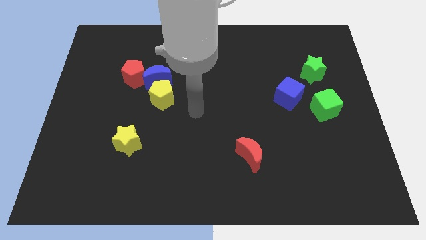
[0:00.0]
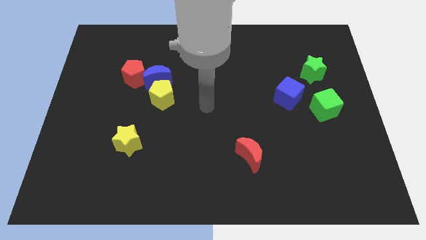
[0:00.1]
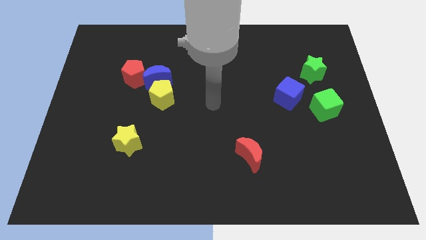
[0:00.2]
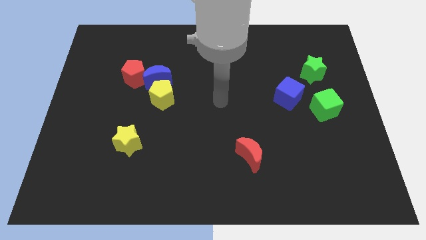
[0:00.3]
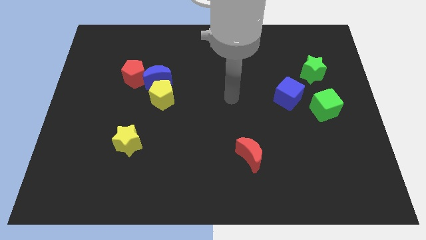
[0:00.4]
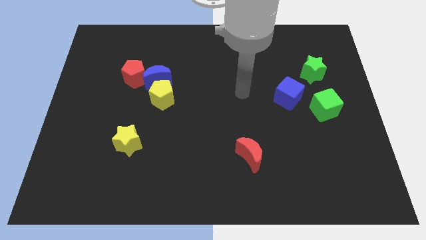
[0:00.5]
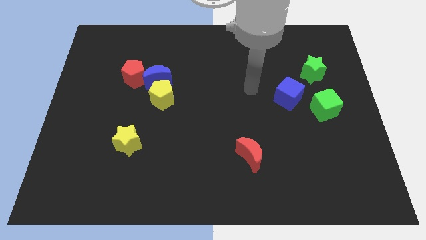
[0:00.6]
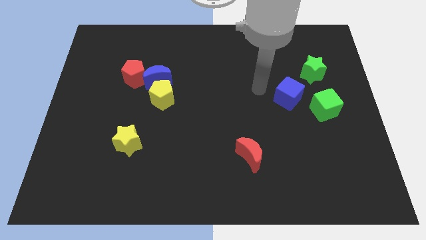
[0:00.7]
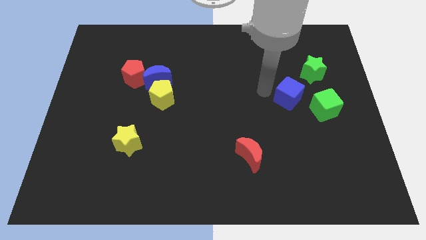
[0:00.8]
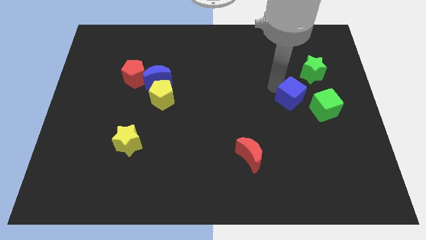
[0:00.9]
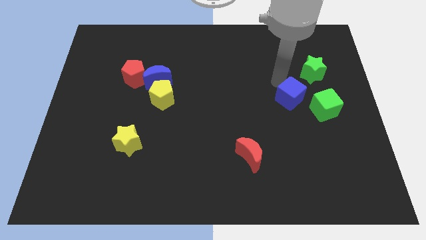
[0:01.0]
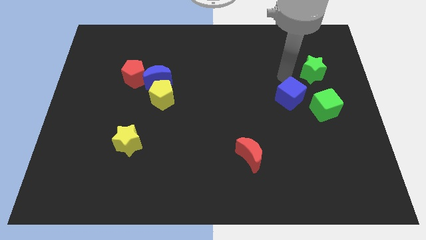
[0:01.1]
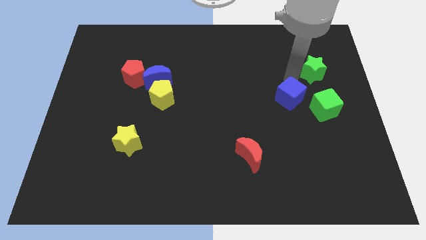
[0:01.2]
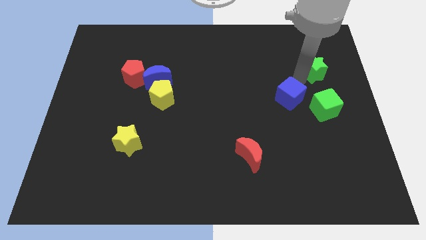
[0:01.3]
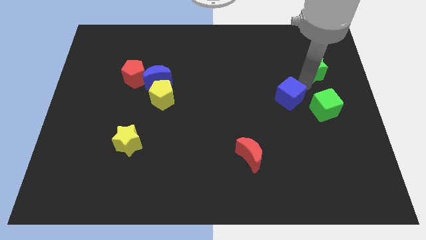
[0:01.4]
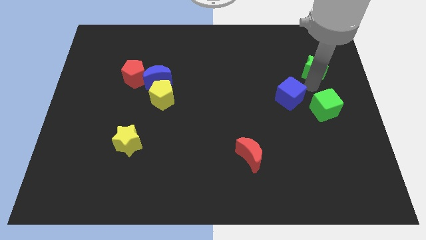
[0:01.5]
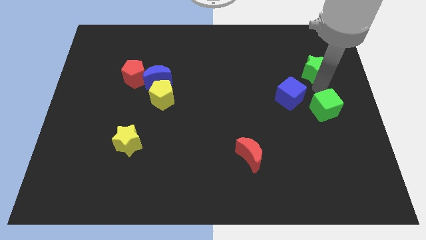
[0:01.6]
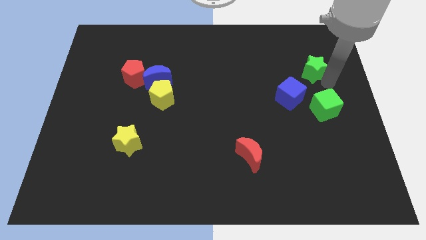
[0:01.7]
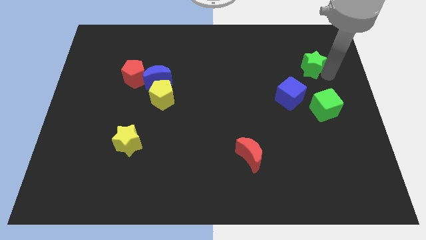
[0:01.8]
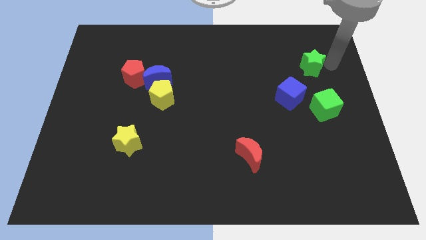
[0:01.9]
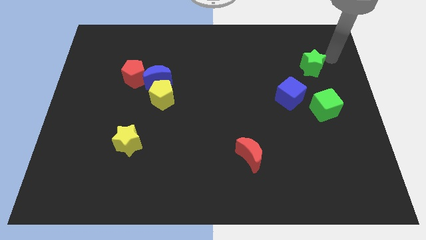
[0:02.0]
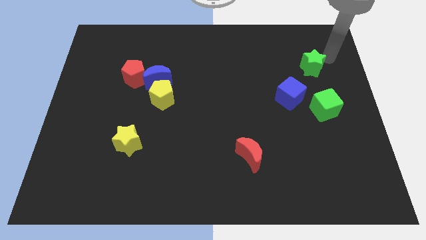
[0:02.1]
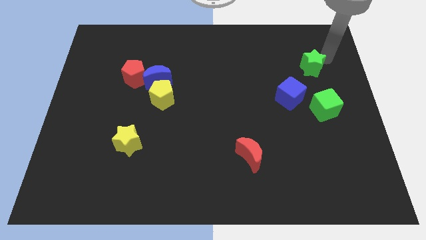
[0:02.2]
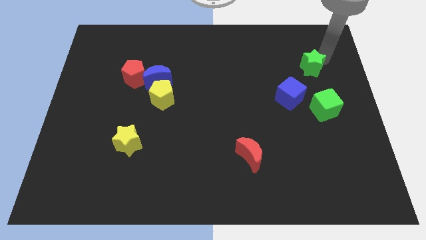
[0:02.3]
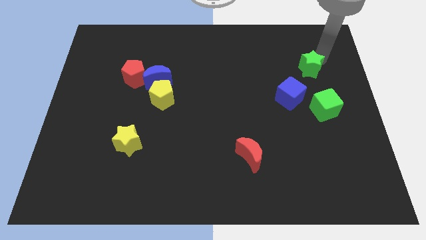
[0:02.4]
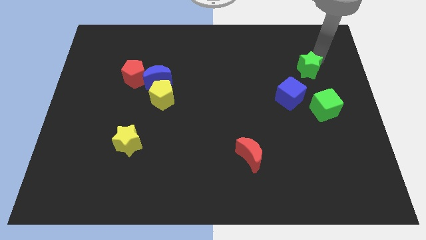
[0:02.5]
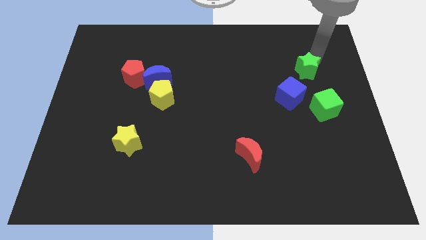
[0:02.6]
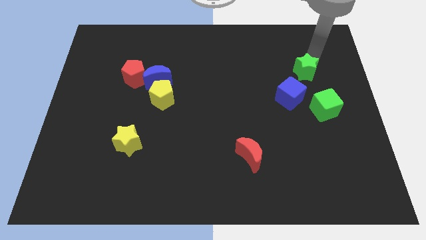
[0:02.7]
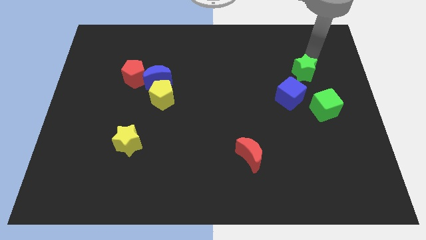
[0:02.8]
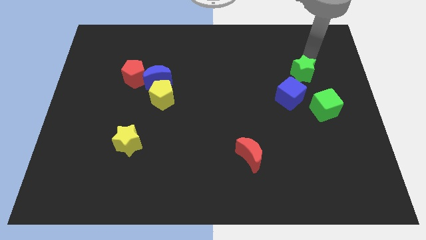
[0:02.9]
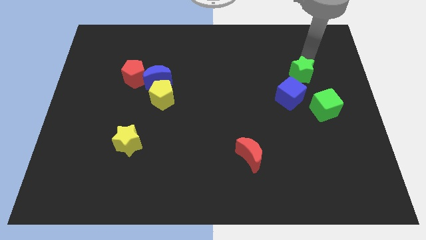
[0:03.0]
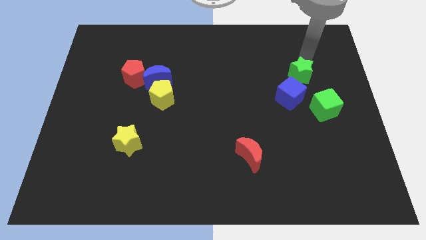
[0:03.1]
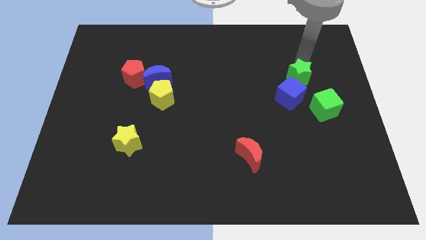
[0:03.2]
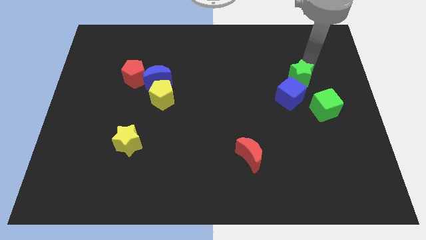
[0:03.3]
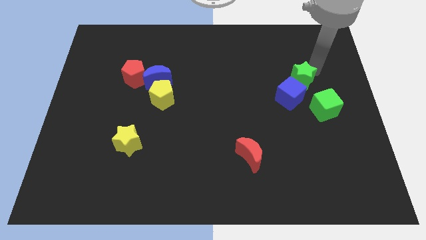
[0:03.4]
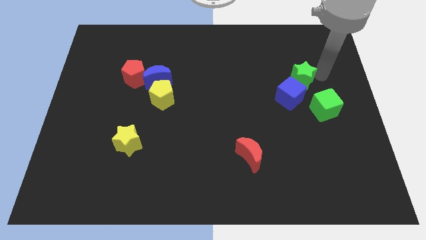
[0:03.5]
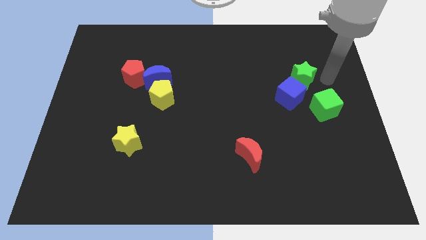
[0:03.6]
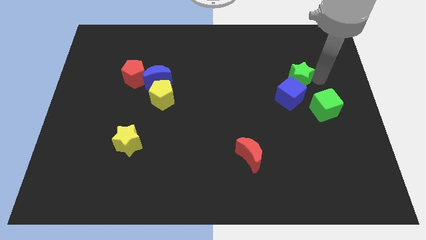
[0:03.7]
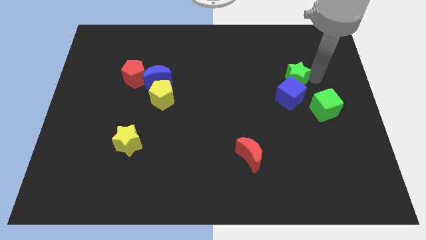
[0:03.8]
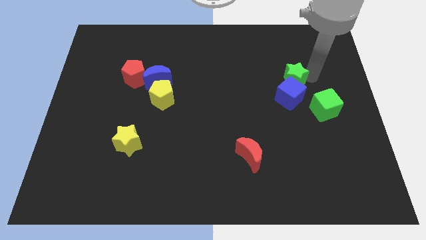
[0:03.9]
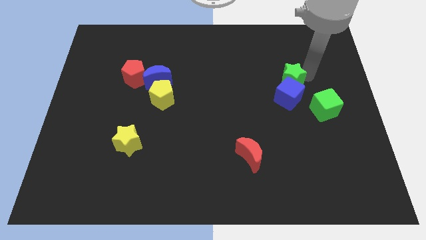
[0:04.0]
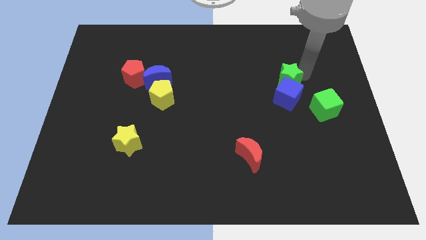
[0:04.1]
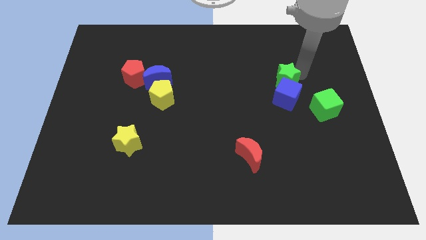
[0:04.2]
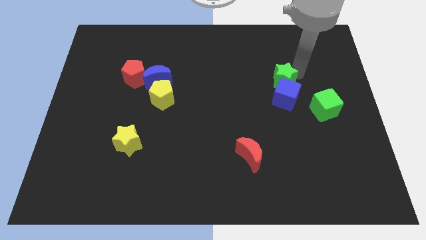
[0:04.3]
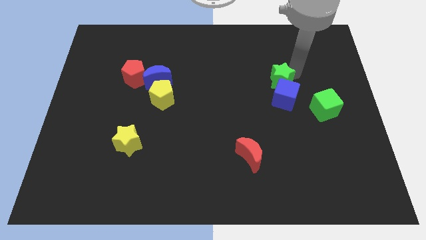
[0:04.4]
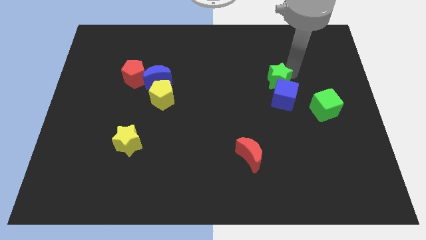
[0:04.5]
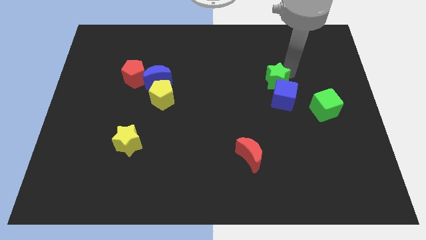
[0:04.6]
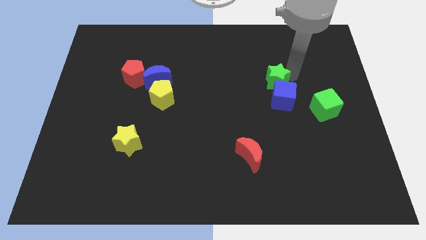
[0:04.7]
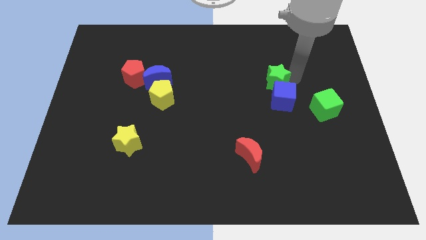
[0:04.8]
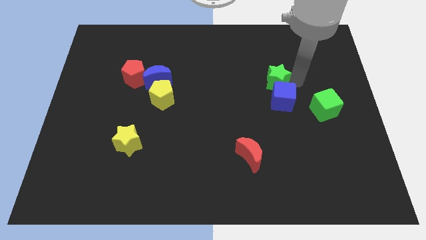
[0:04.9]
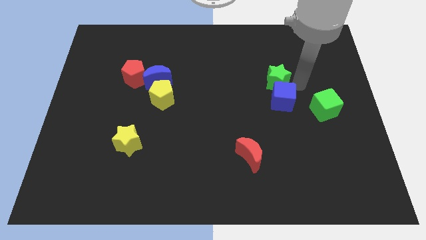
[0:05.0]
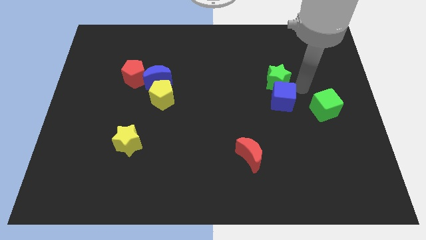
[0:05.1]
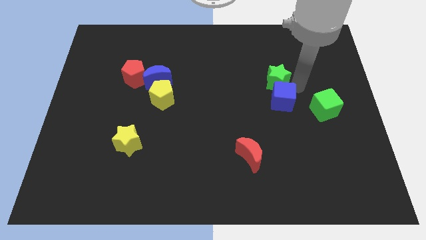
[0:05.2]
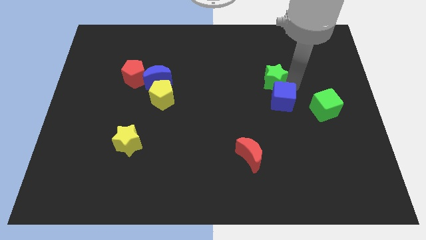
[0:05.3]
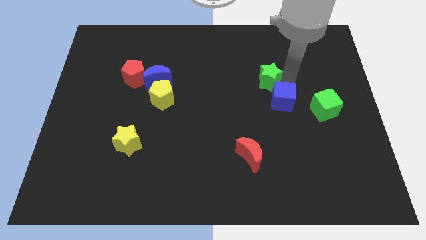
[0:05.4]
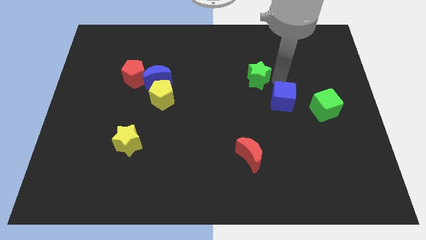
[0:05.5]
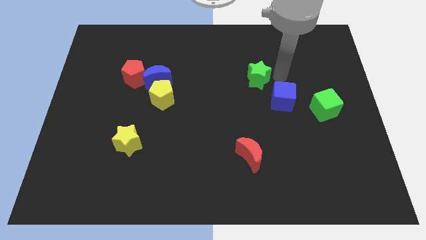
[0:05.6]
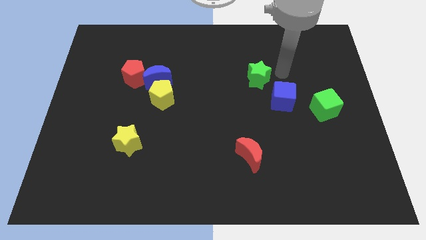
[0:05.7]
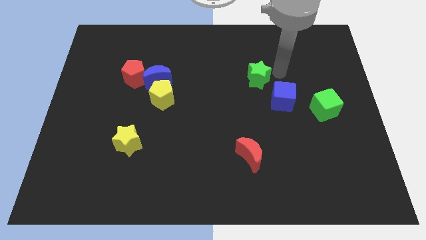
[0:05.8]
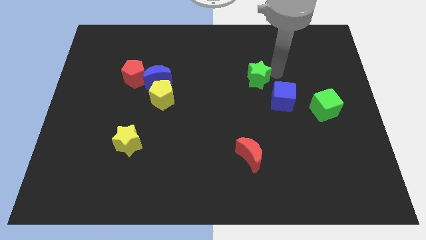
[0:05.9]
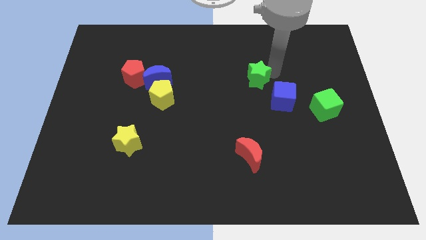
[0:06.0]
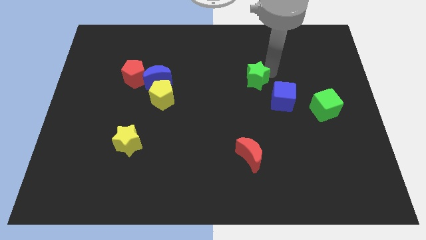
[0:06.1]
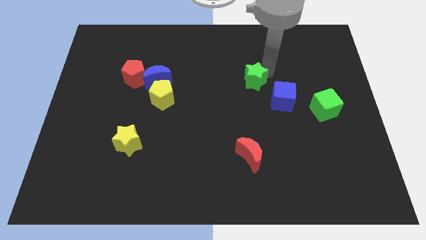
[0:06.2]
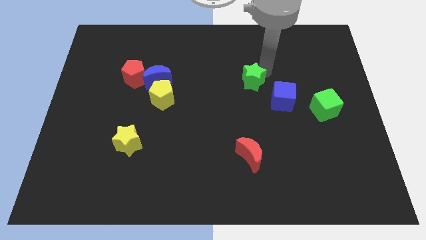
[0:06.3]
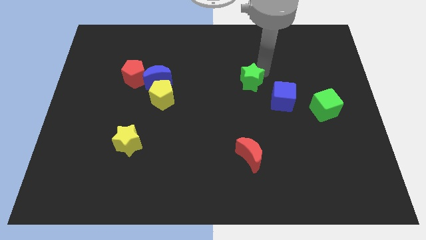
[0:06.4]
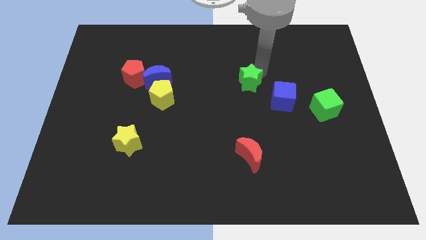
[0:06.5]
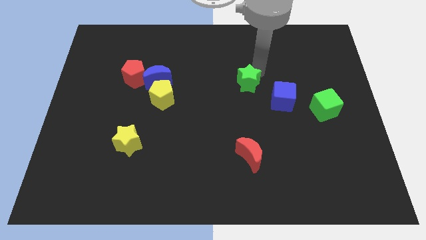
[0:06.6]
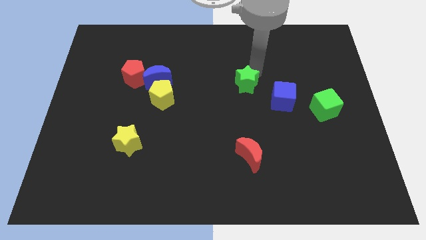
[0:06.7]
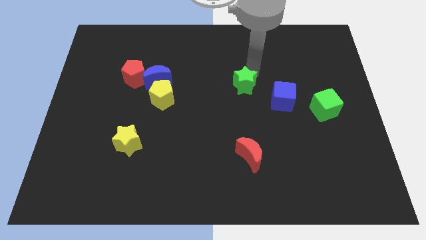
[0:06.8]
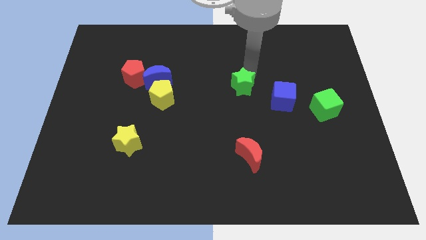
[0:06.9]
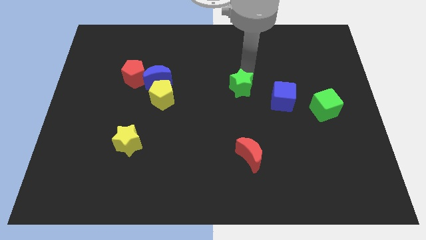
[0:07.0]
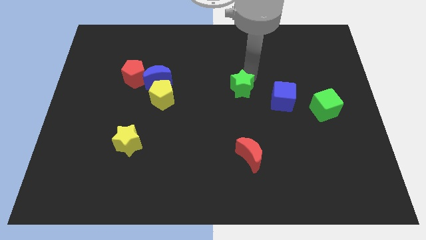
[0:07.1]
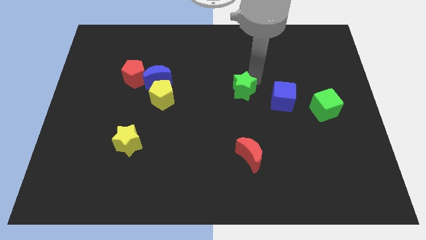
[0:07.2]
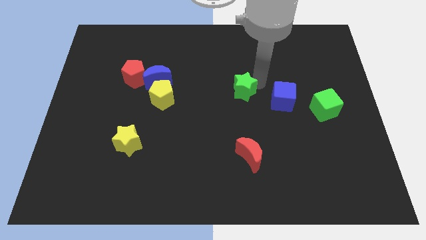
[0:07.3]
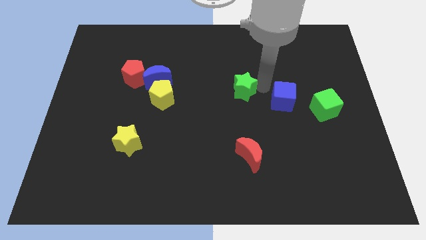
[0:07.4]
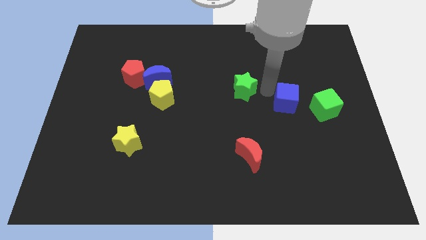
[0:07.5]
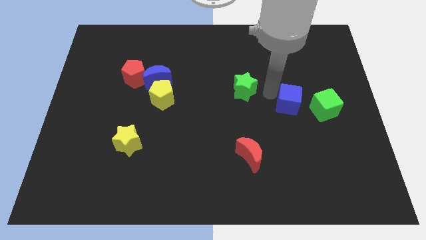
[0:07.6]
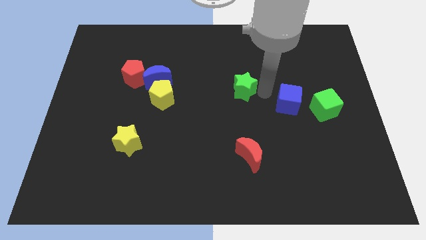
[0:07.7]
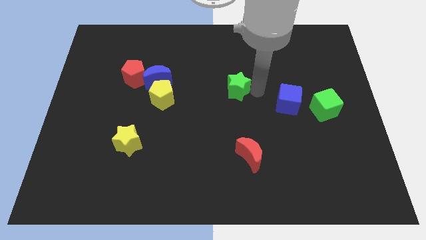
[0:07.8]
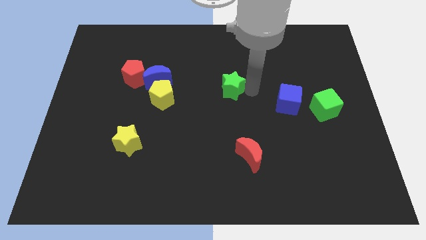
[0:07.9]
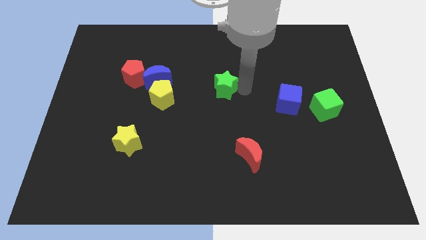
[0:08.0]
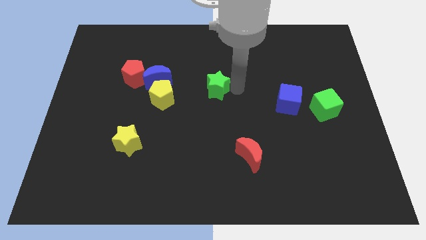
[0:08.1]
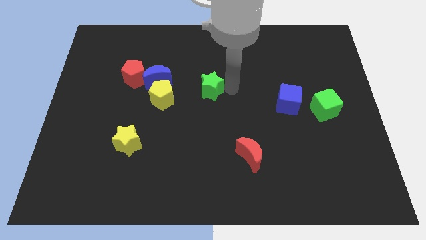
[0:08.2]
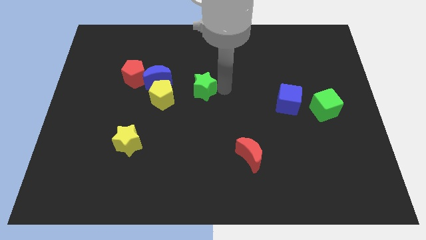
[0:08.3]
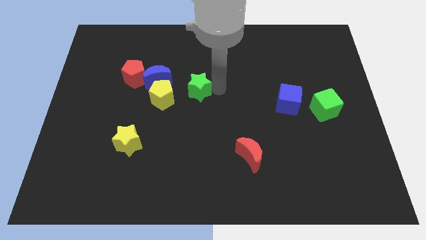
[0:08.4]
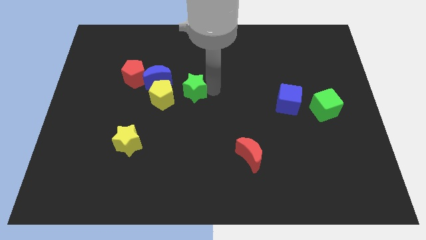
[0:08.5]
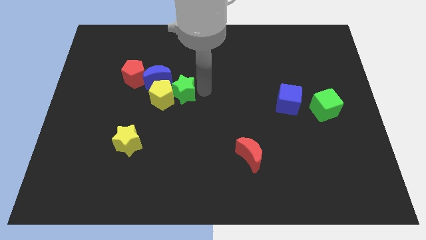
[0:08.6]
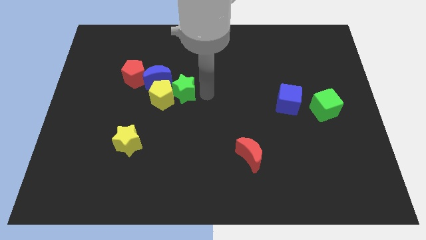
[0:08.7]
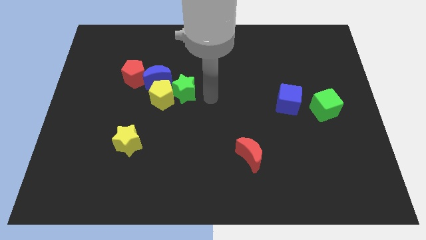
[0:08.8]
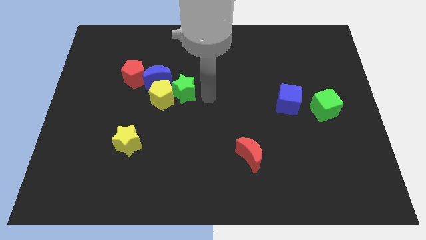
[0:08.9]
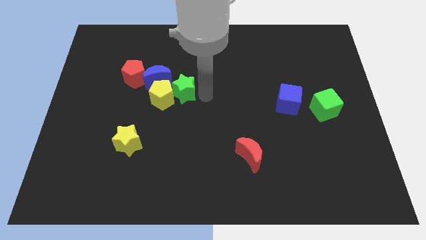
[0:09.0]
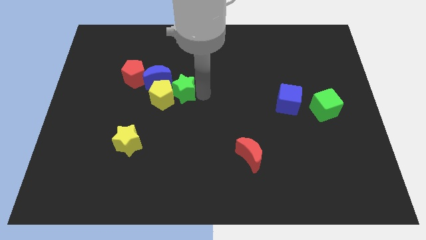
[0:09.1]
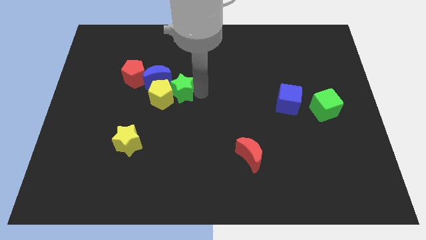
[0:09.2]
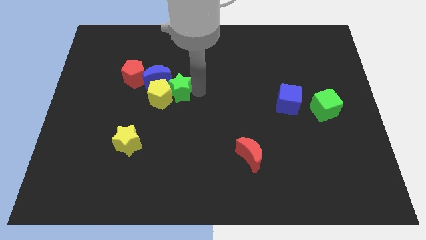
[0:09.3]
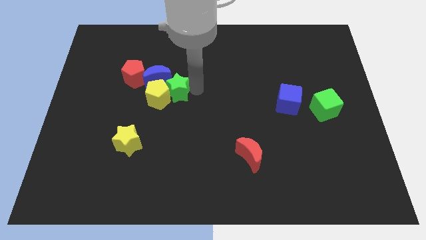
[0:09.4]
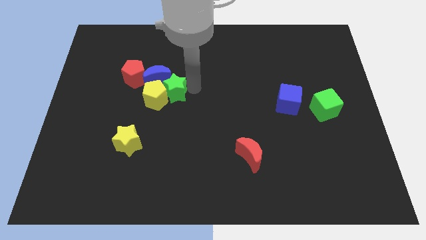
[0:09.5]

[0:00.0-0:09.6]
push the green star next to the blue moon
